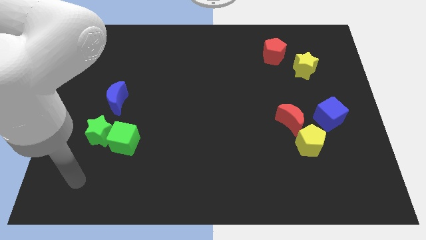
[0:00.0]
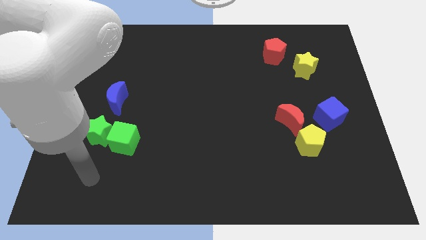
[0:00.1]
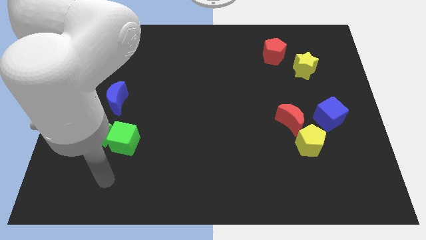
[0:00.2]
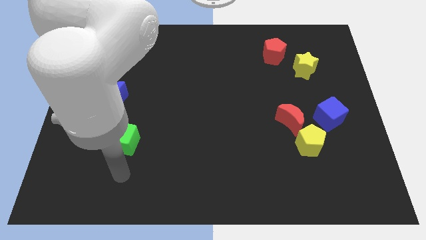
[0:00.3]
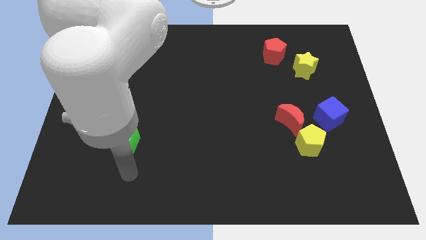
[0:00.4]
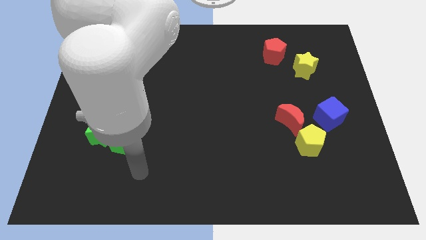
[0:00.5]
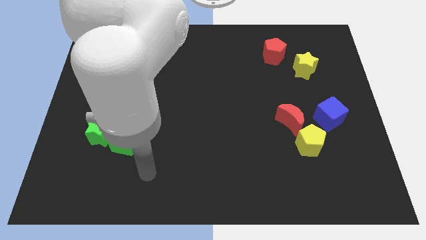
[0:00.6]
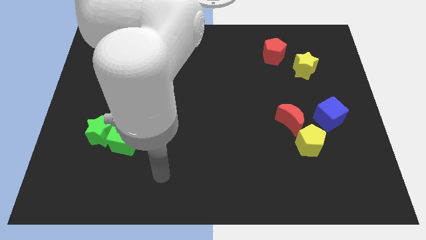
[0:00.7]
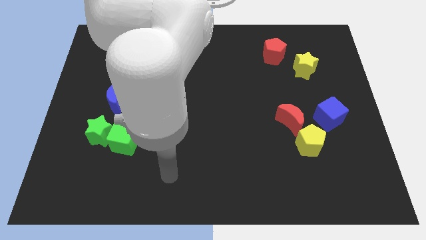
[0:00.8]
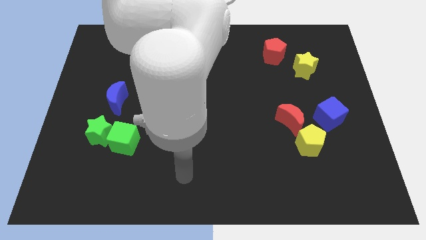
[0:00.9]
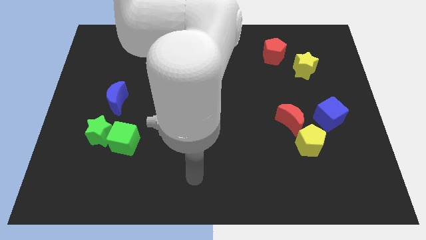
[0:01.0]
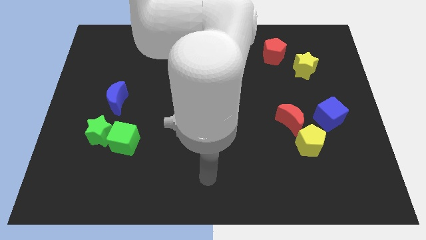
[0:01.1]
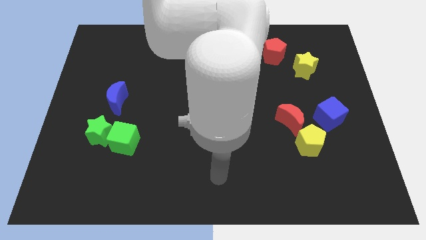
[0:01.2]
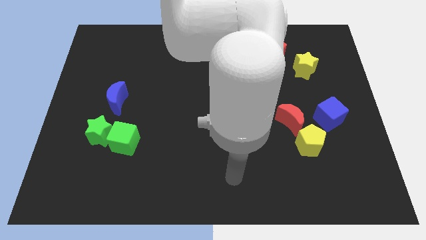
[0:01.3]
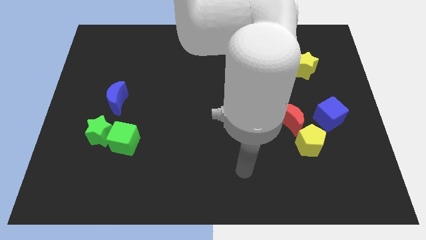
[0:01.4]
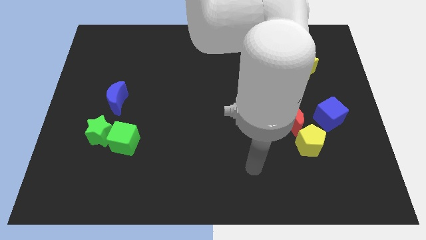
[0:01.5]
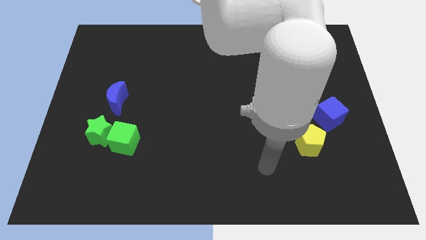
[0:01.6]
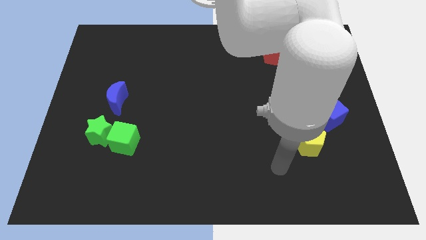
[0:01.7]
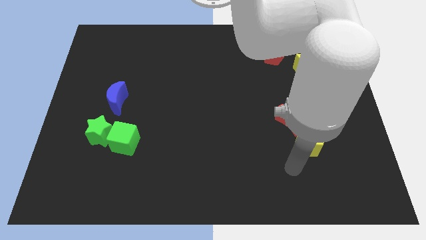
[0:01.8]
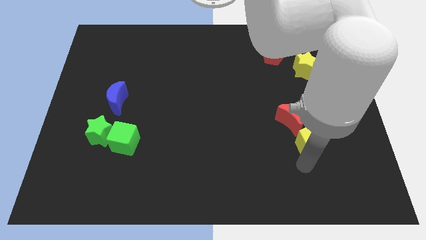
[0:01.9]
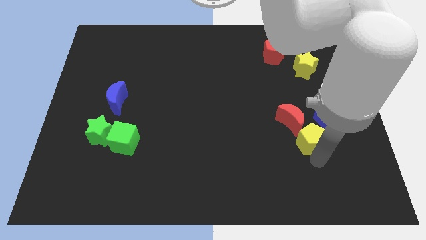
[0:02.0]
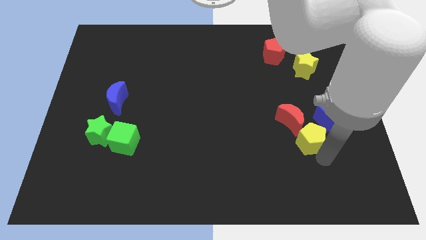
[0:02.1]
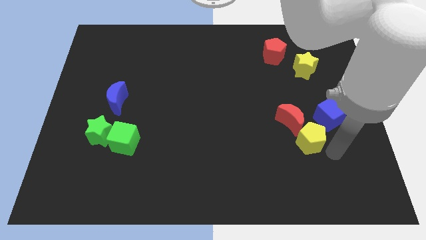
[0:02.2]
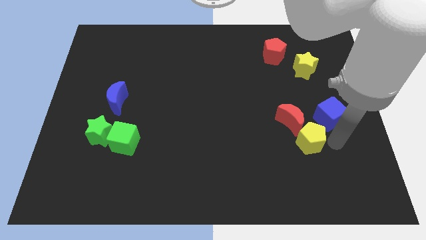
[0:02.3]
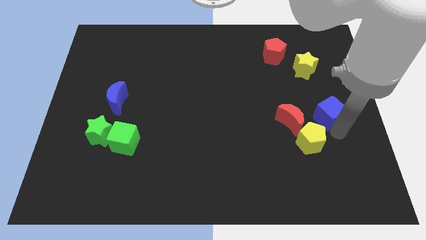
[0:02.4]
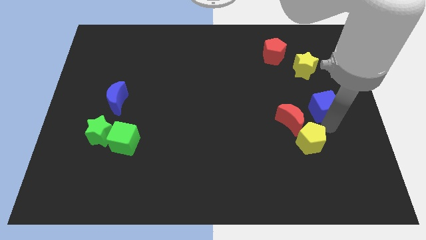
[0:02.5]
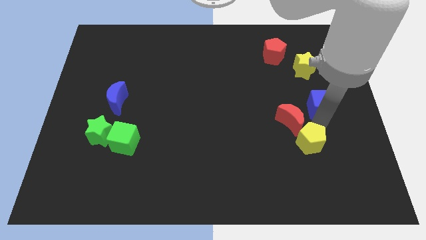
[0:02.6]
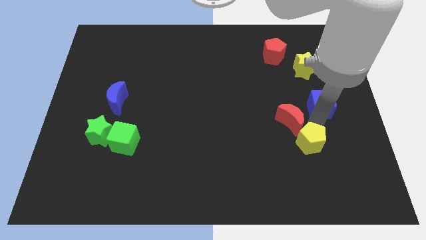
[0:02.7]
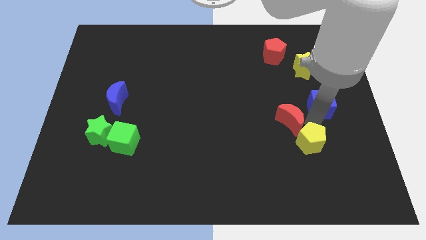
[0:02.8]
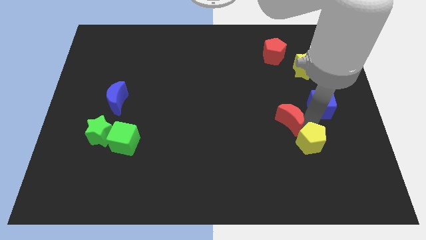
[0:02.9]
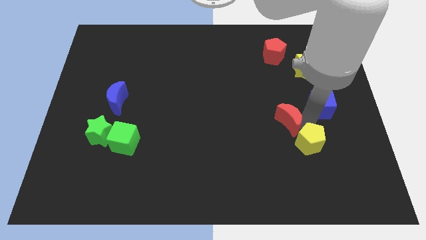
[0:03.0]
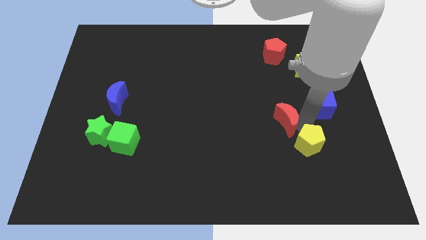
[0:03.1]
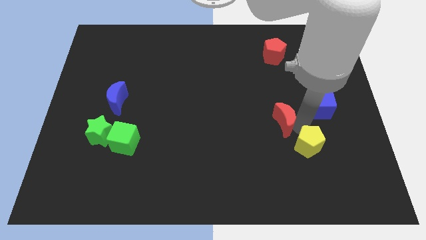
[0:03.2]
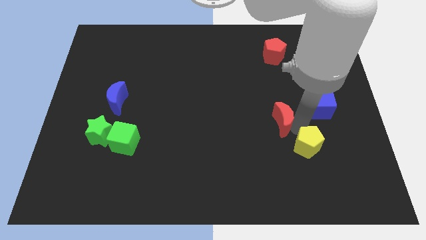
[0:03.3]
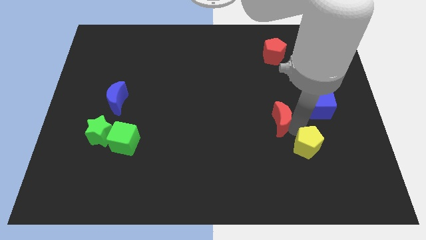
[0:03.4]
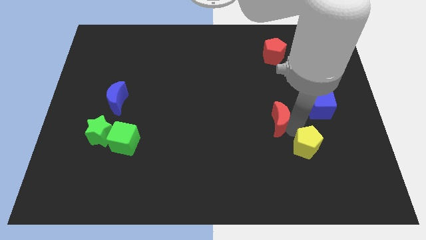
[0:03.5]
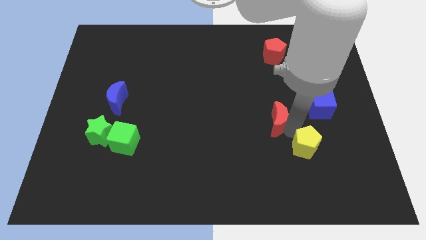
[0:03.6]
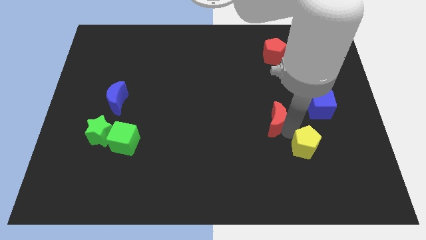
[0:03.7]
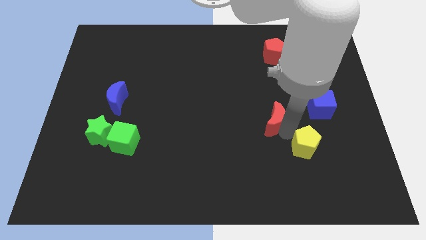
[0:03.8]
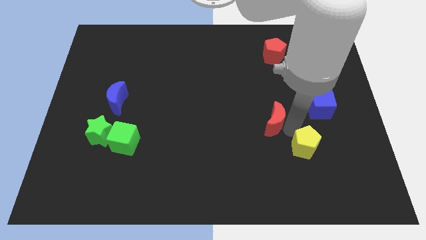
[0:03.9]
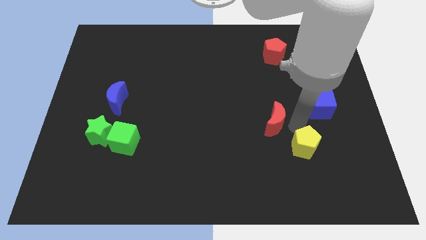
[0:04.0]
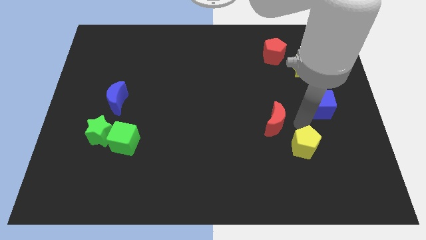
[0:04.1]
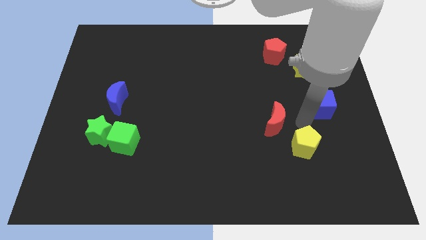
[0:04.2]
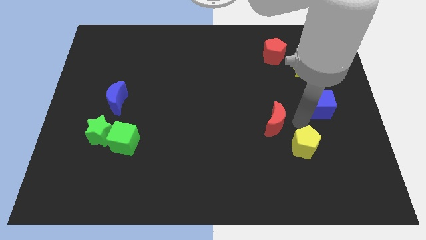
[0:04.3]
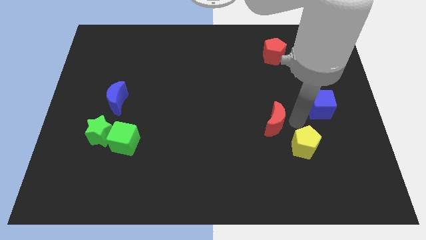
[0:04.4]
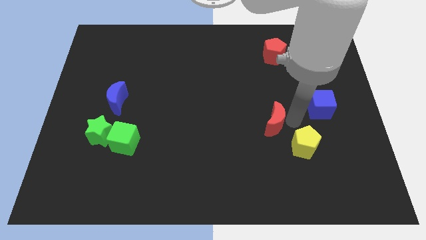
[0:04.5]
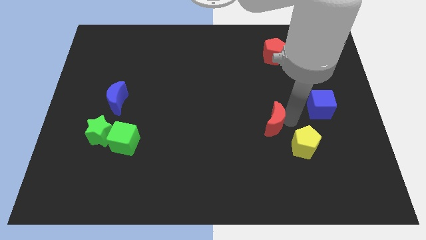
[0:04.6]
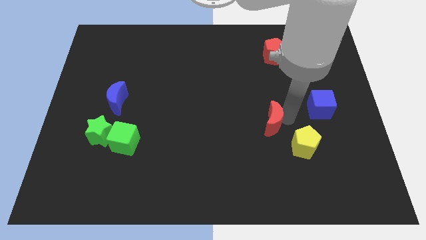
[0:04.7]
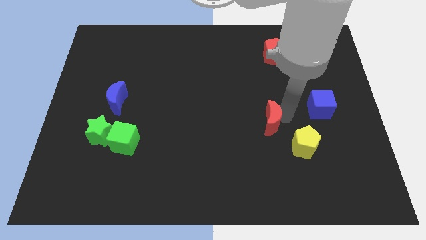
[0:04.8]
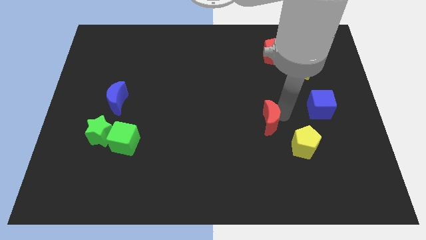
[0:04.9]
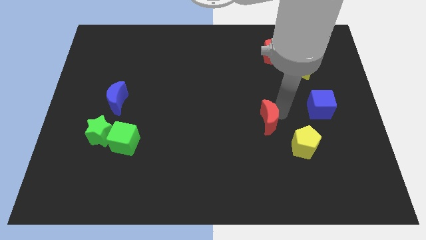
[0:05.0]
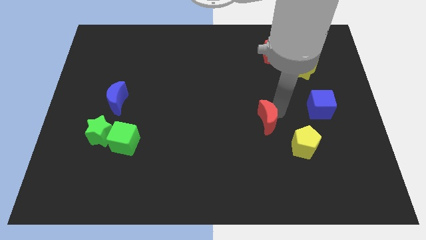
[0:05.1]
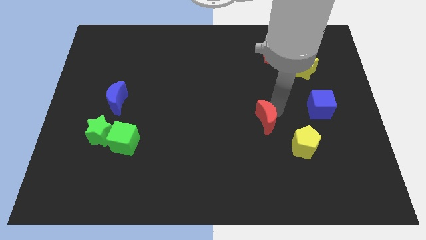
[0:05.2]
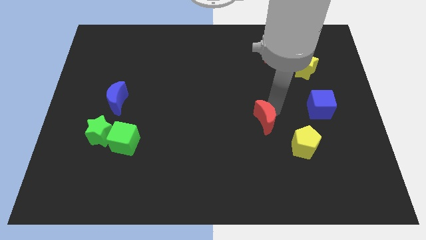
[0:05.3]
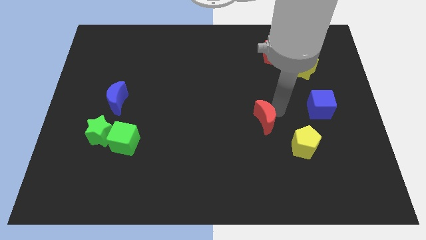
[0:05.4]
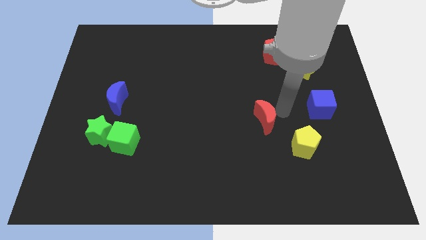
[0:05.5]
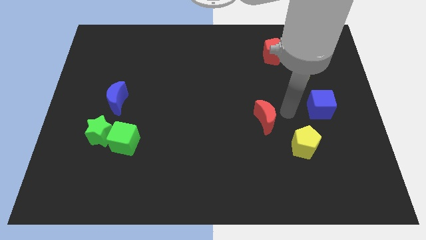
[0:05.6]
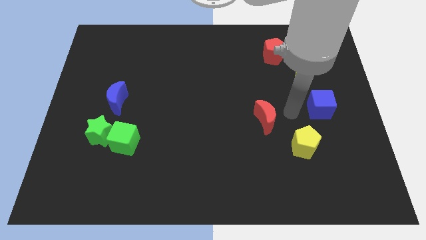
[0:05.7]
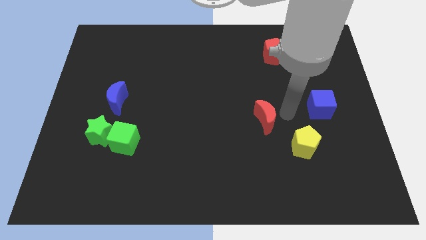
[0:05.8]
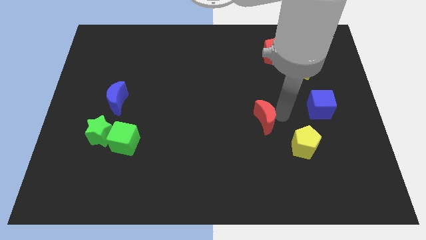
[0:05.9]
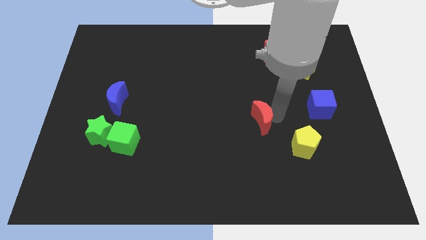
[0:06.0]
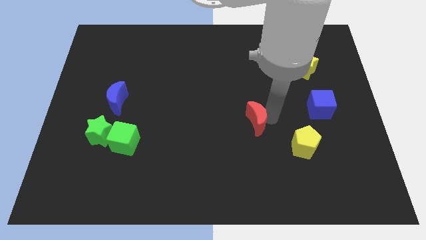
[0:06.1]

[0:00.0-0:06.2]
slightly push the red moon left

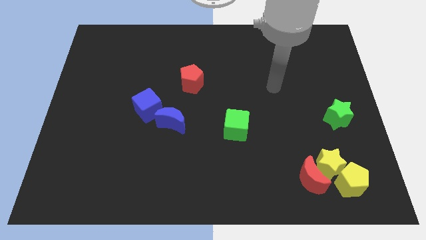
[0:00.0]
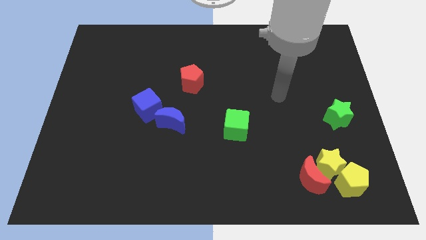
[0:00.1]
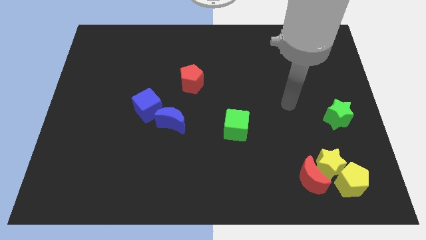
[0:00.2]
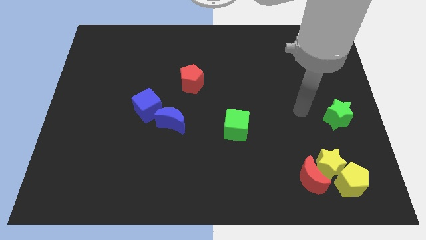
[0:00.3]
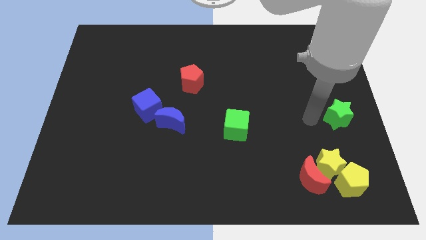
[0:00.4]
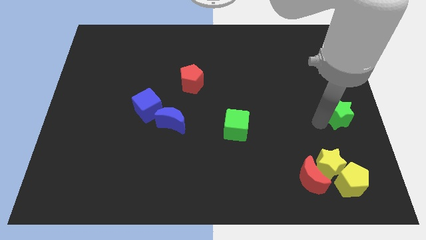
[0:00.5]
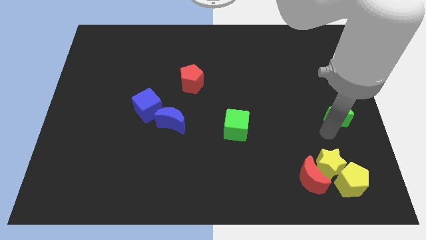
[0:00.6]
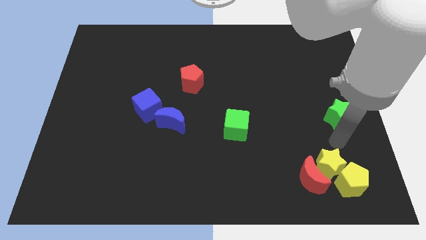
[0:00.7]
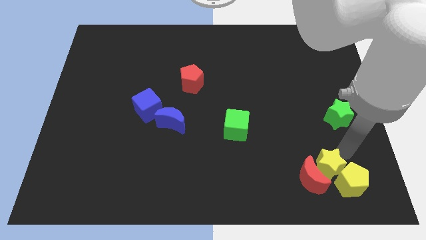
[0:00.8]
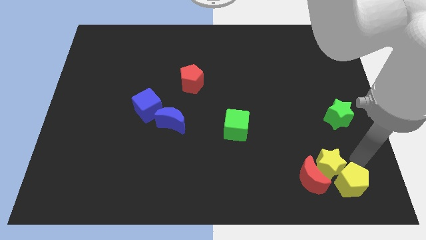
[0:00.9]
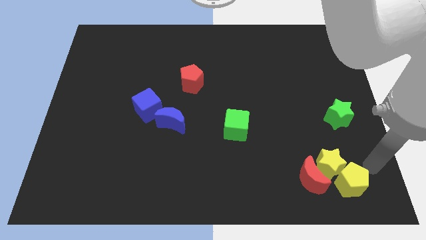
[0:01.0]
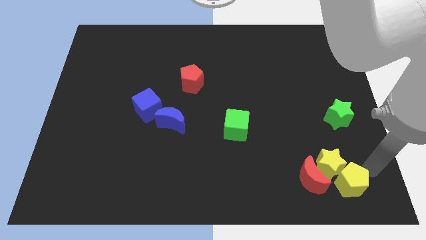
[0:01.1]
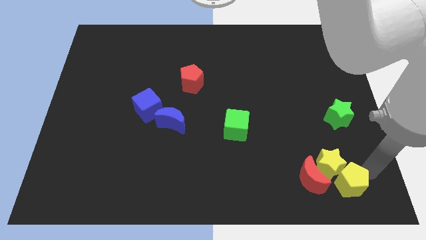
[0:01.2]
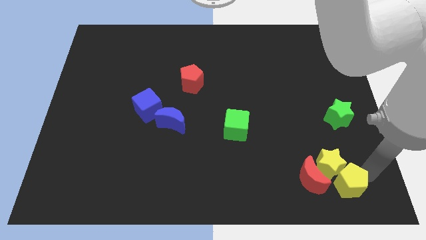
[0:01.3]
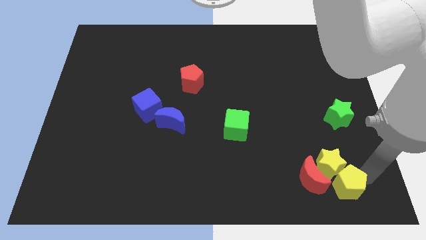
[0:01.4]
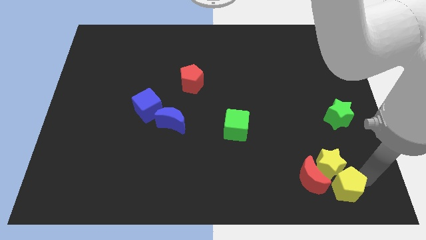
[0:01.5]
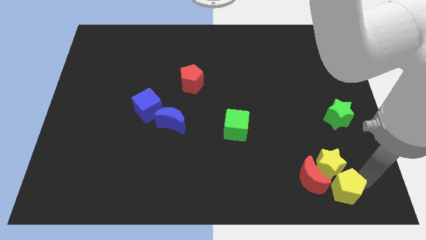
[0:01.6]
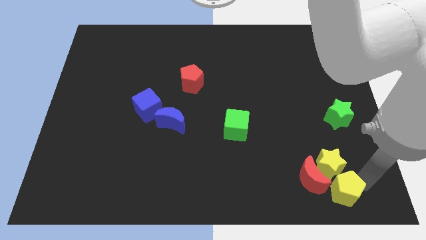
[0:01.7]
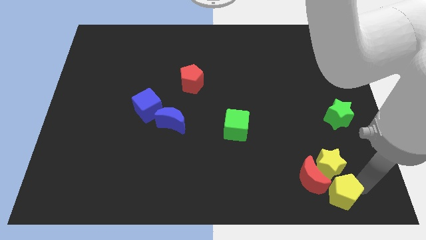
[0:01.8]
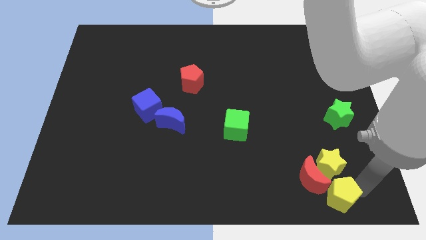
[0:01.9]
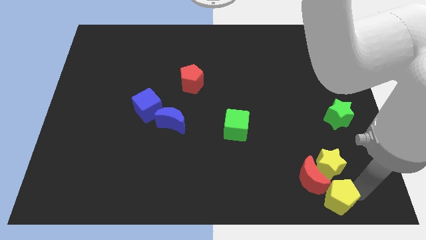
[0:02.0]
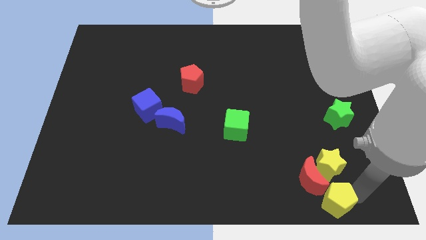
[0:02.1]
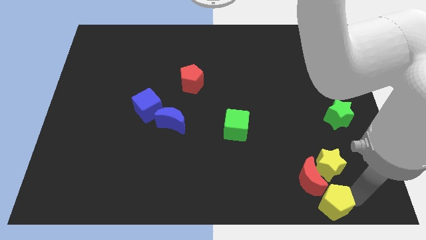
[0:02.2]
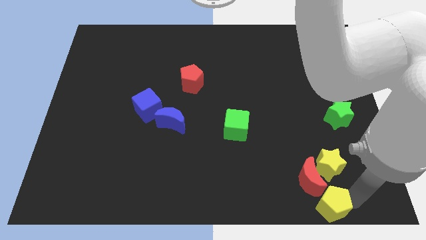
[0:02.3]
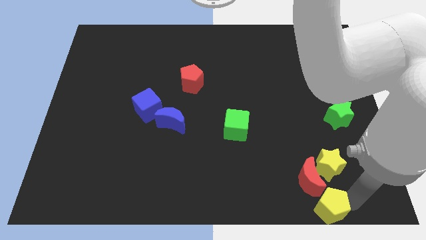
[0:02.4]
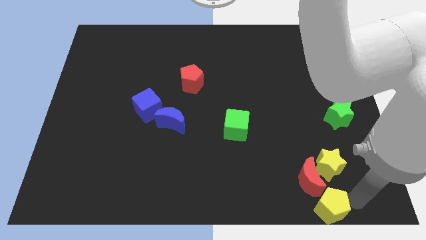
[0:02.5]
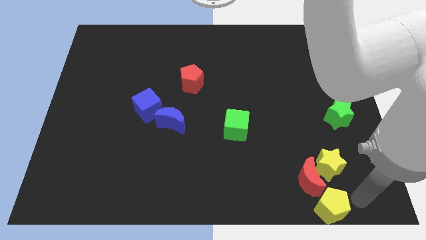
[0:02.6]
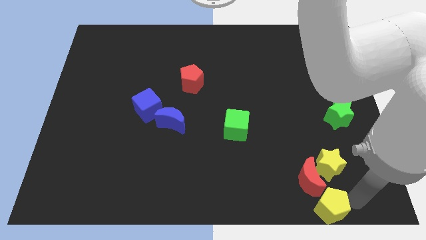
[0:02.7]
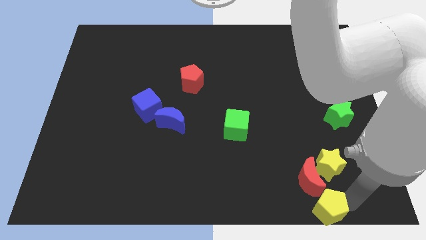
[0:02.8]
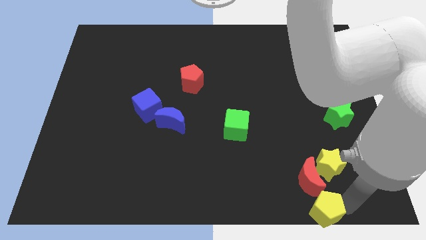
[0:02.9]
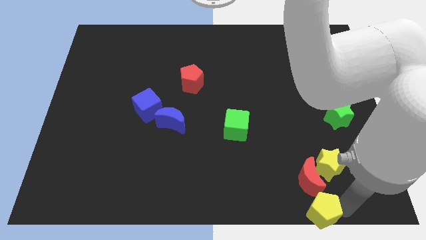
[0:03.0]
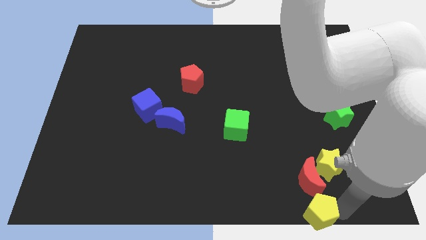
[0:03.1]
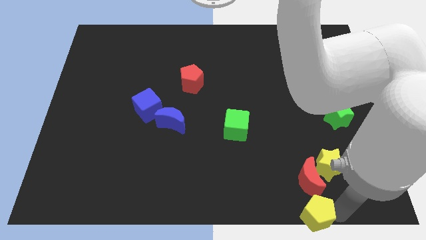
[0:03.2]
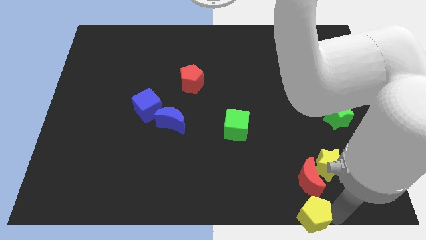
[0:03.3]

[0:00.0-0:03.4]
slide the yellow pentagon a bit to the left
